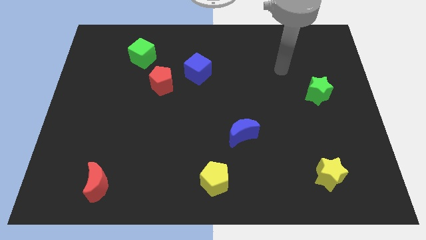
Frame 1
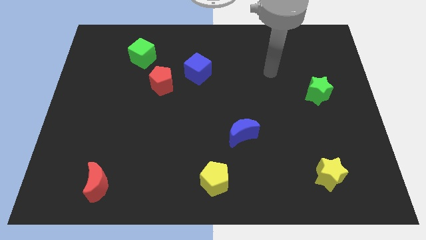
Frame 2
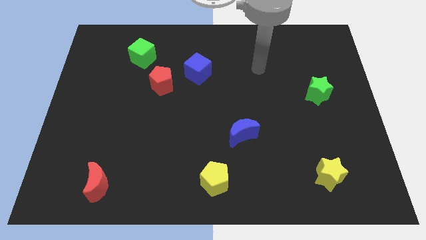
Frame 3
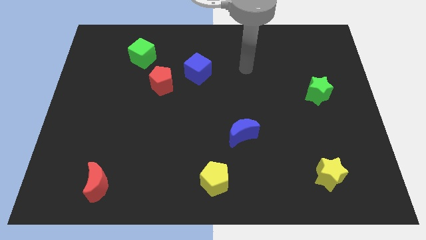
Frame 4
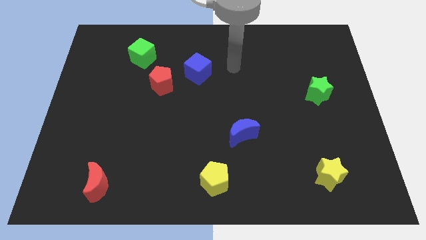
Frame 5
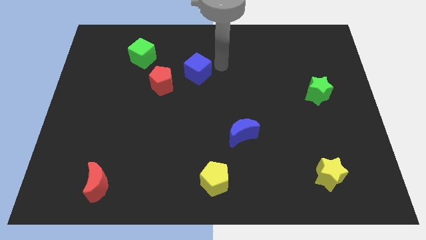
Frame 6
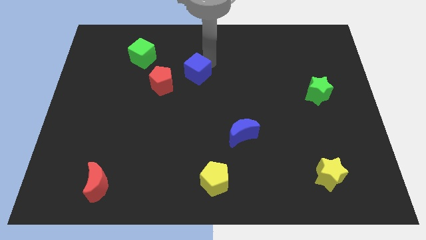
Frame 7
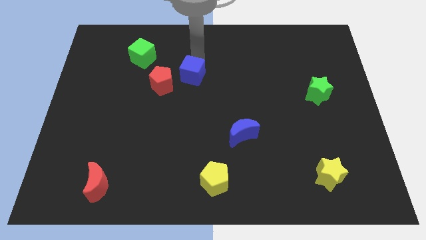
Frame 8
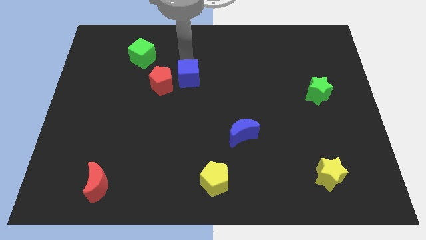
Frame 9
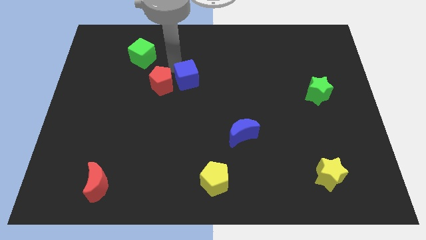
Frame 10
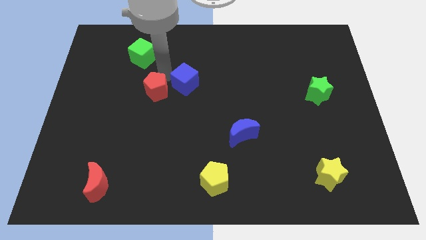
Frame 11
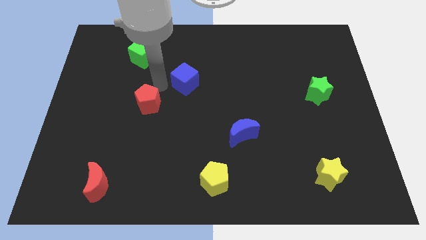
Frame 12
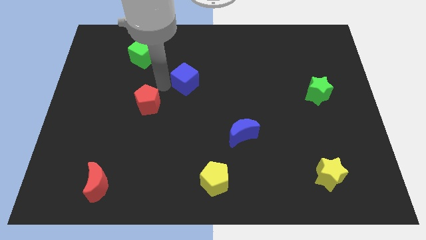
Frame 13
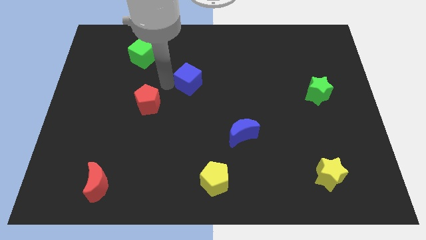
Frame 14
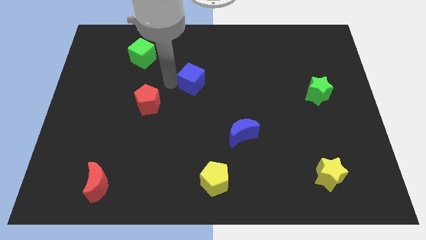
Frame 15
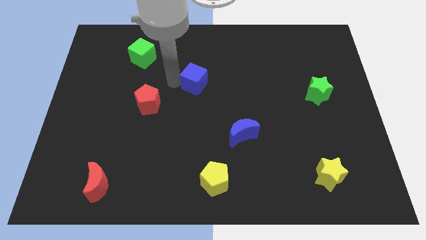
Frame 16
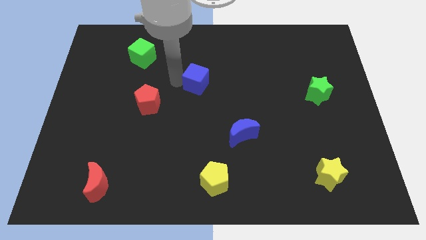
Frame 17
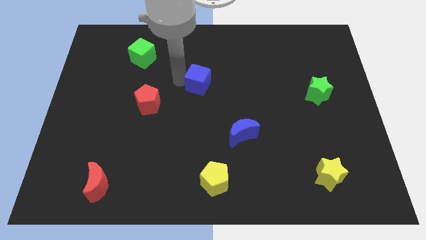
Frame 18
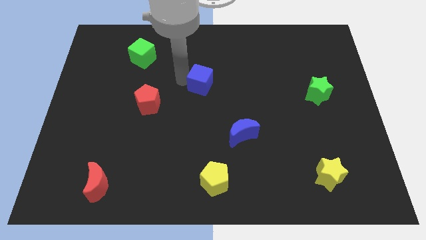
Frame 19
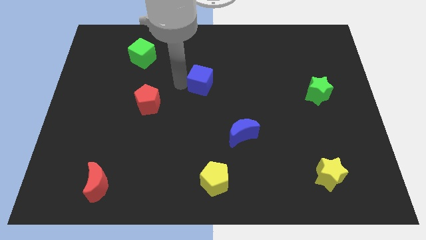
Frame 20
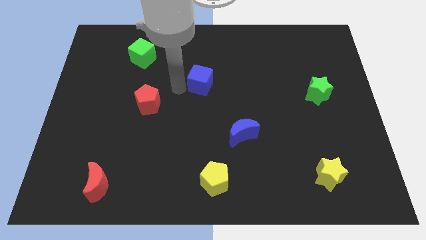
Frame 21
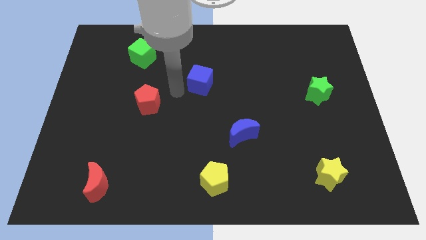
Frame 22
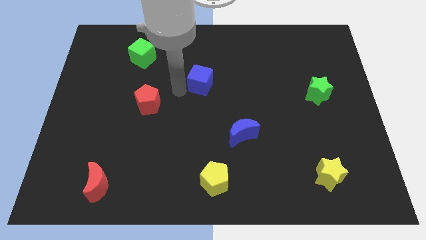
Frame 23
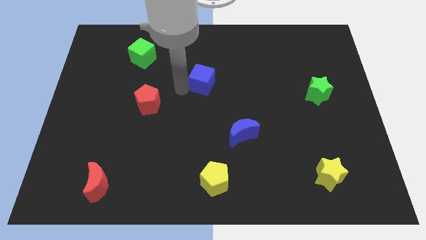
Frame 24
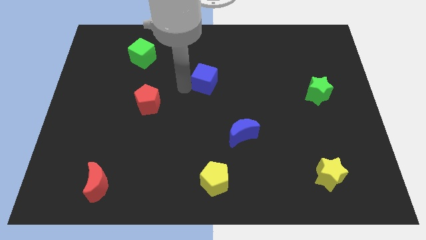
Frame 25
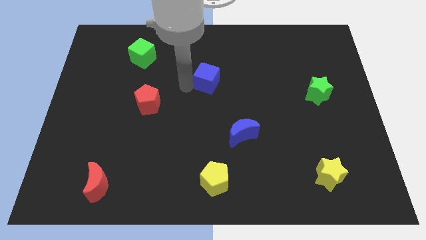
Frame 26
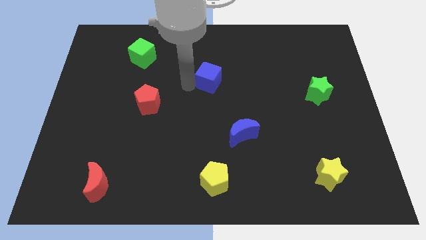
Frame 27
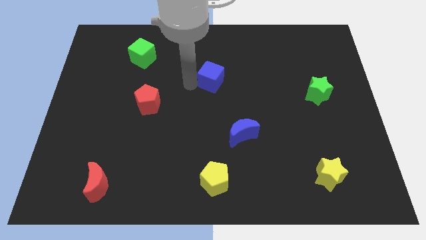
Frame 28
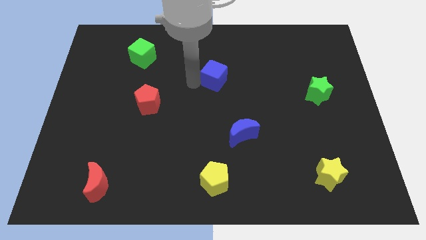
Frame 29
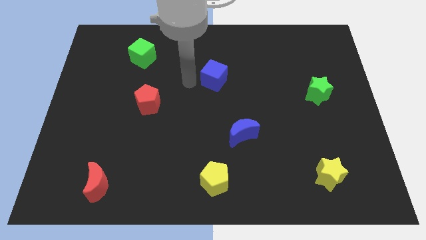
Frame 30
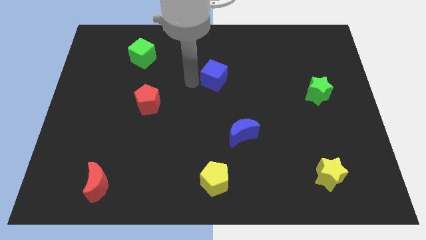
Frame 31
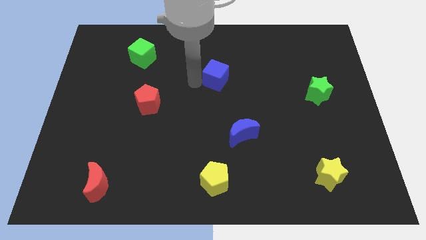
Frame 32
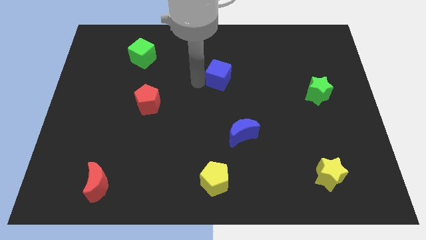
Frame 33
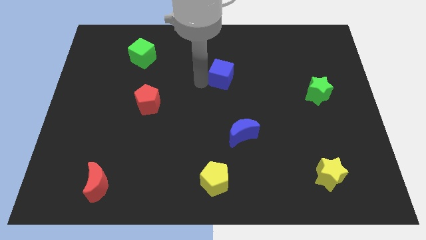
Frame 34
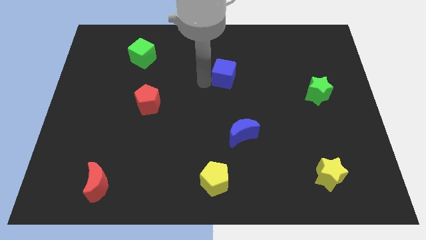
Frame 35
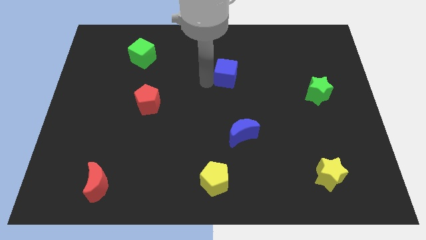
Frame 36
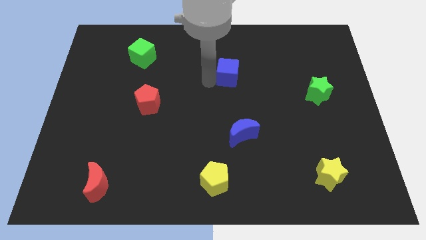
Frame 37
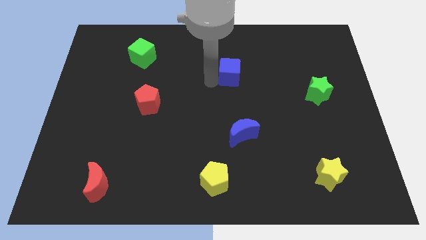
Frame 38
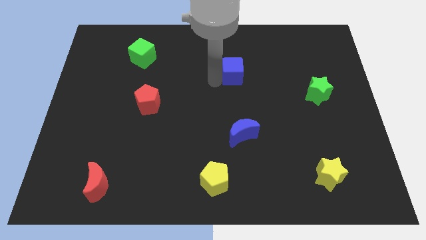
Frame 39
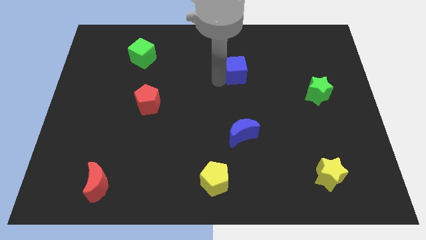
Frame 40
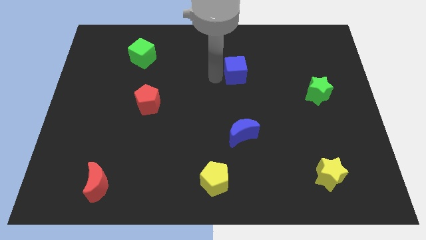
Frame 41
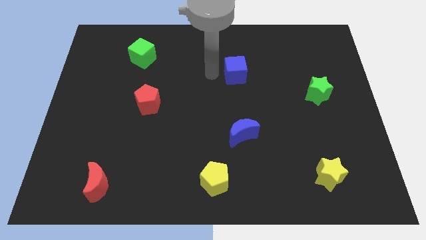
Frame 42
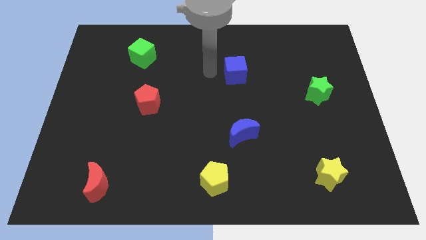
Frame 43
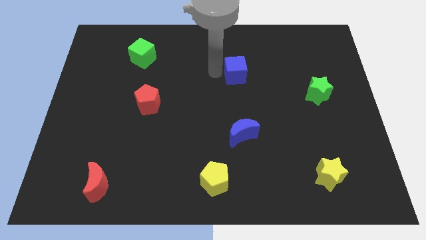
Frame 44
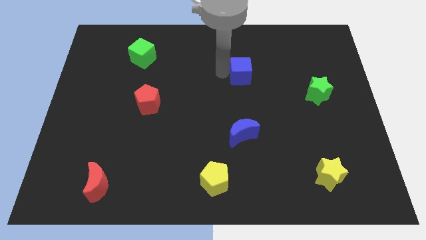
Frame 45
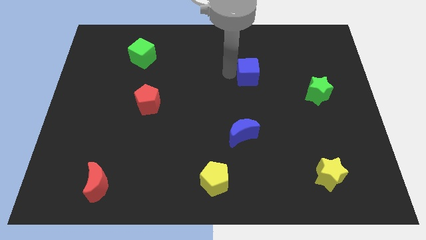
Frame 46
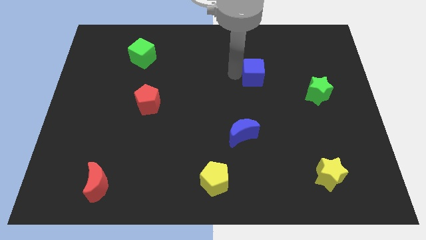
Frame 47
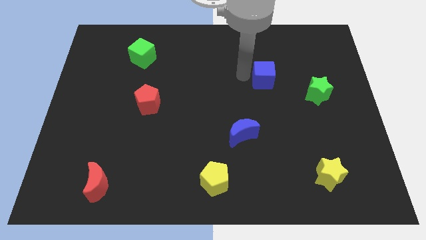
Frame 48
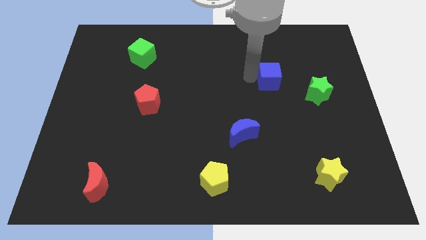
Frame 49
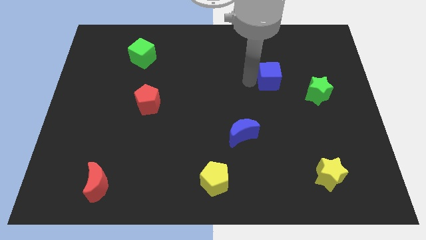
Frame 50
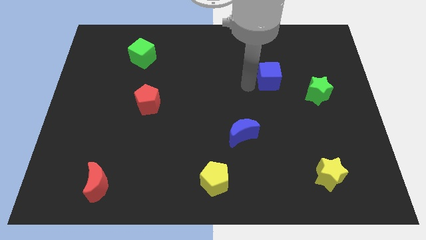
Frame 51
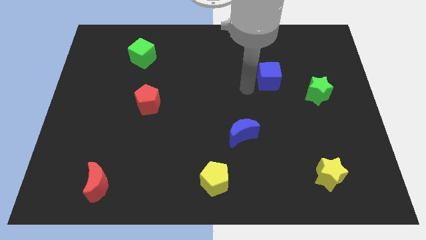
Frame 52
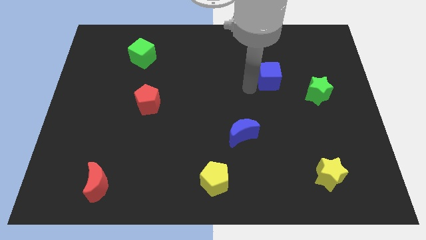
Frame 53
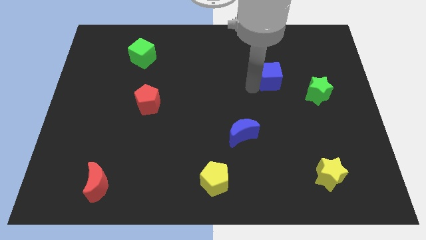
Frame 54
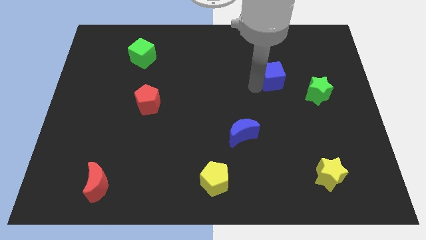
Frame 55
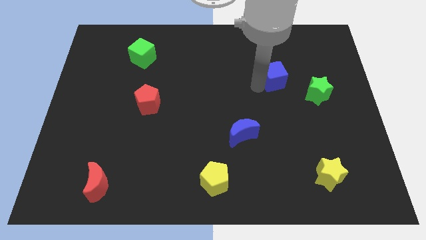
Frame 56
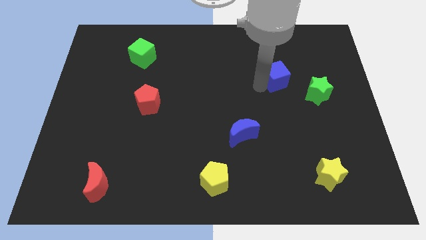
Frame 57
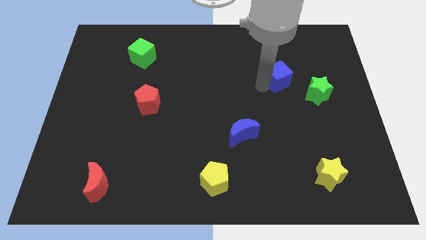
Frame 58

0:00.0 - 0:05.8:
move the blue cube to the right

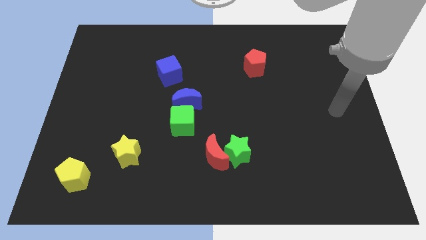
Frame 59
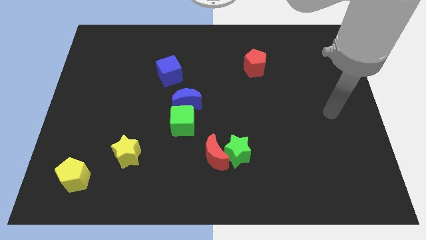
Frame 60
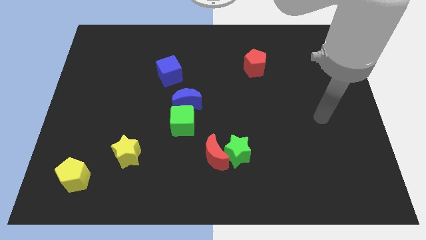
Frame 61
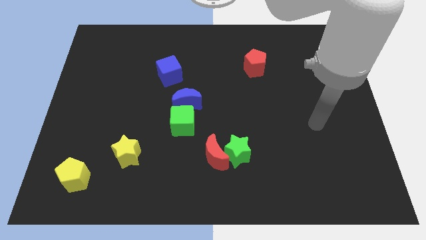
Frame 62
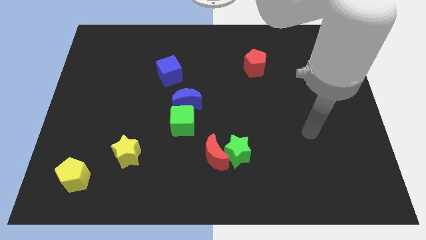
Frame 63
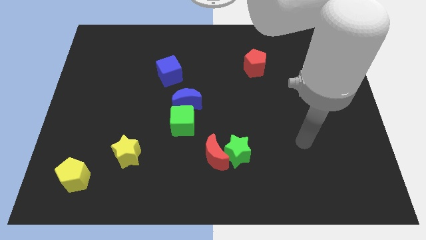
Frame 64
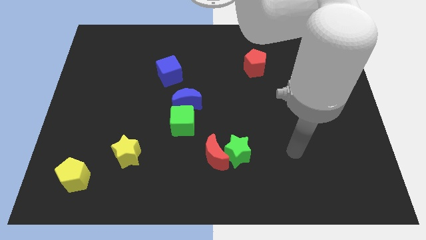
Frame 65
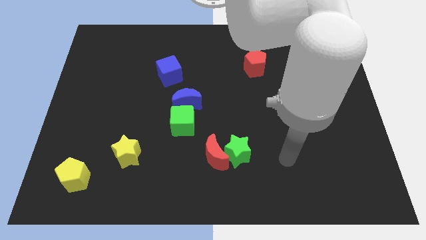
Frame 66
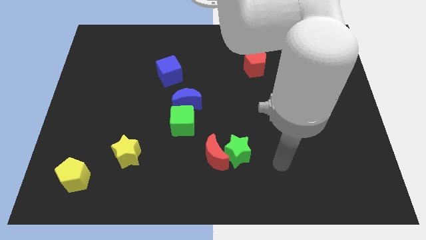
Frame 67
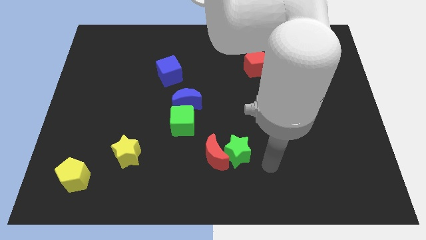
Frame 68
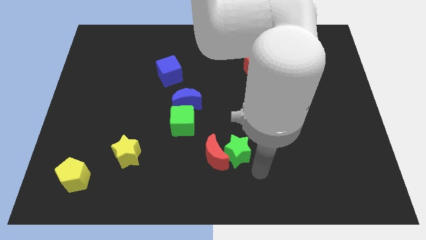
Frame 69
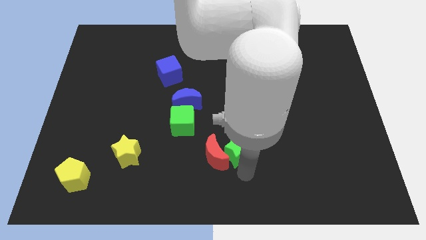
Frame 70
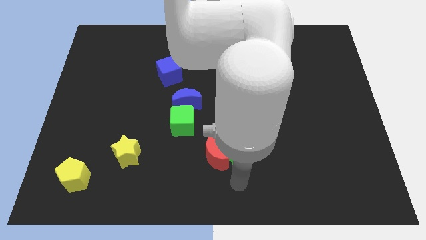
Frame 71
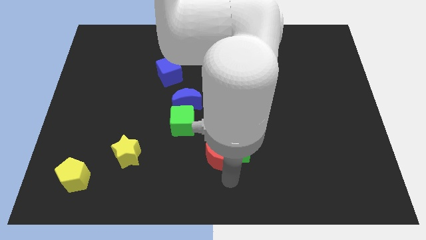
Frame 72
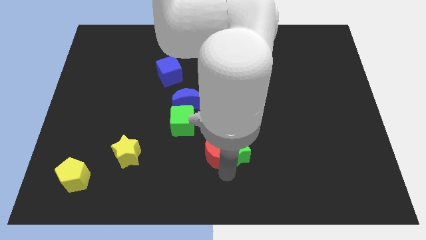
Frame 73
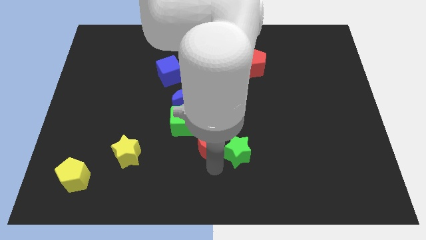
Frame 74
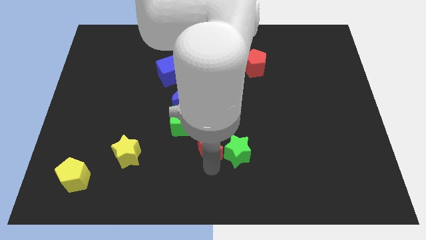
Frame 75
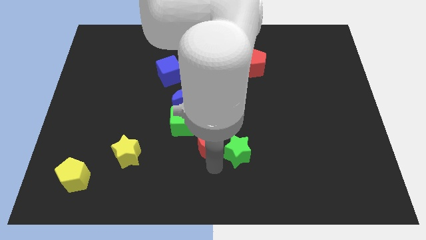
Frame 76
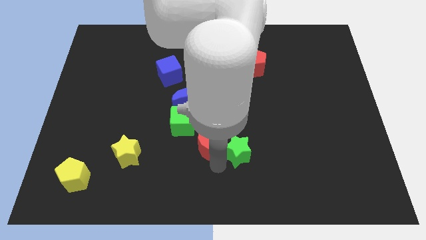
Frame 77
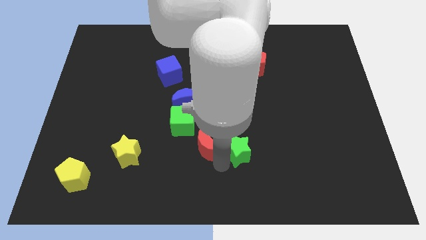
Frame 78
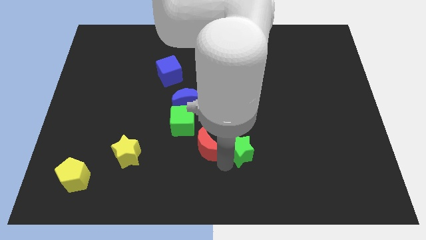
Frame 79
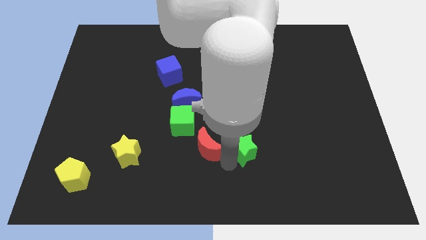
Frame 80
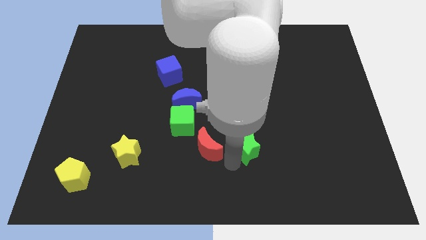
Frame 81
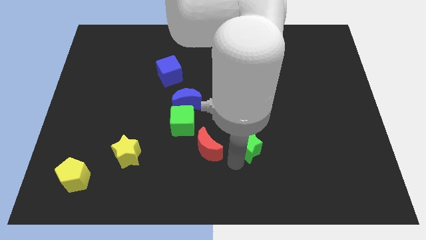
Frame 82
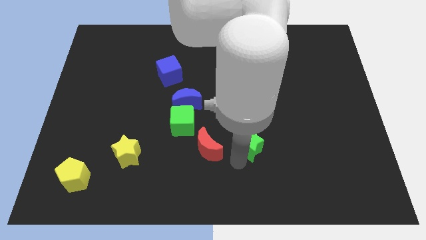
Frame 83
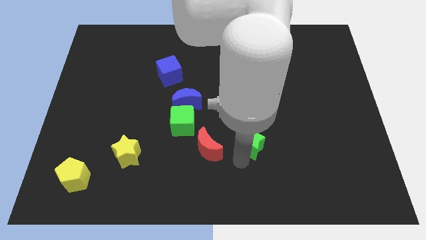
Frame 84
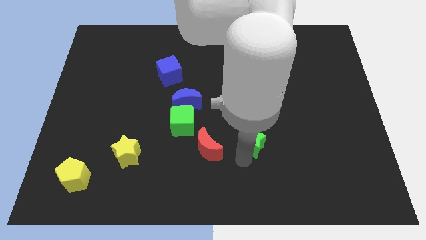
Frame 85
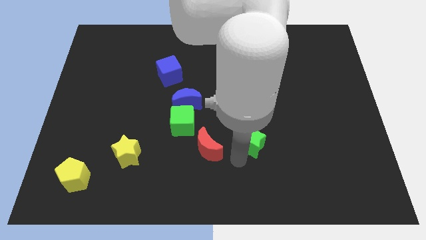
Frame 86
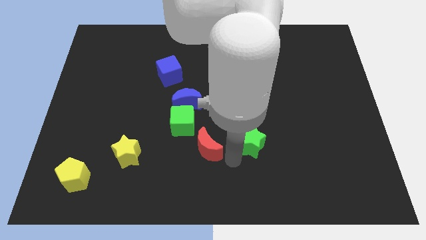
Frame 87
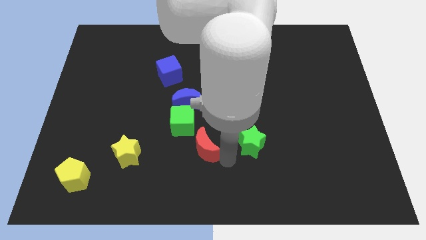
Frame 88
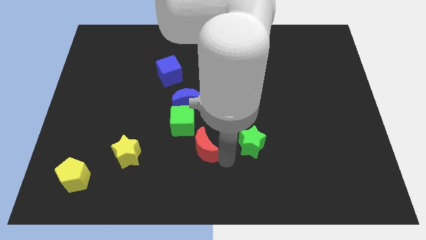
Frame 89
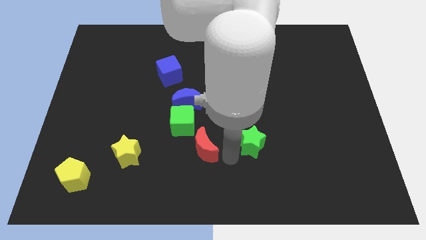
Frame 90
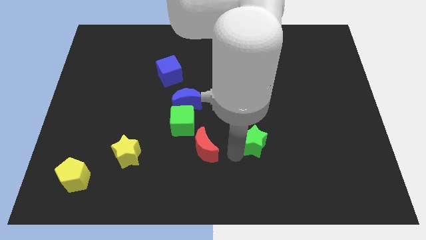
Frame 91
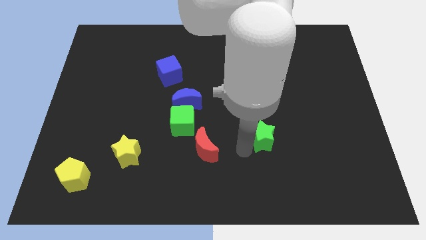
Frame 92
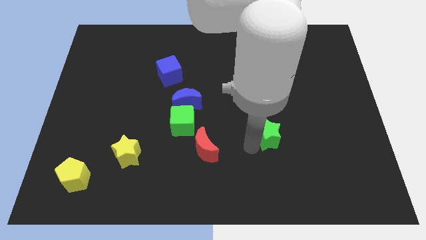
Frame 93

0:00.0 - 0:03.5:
move the green star a bit diagonally up and right
